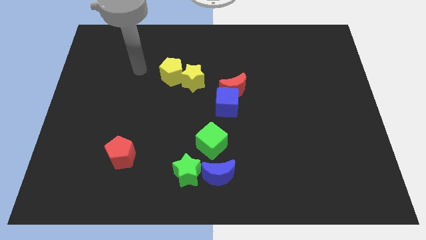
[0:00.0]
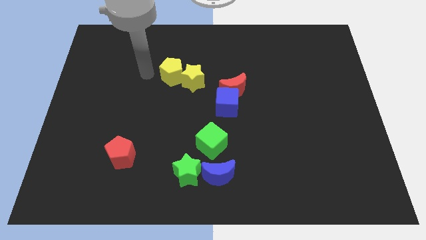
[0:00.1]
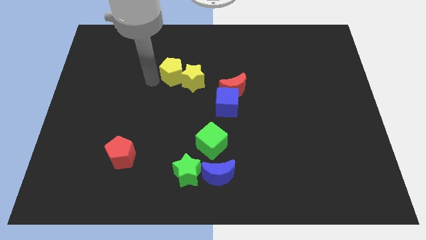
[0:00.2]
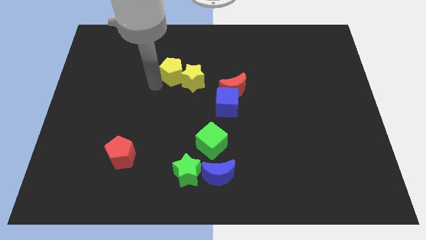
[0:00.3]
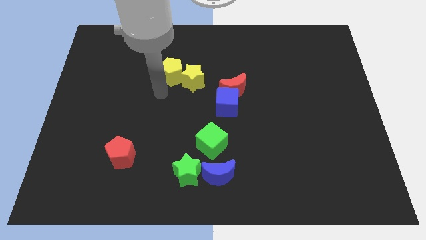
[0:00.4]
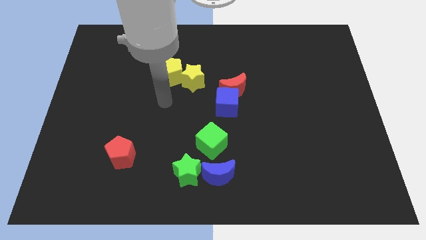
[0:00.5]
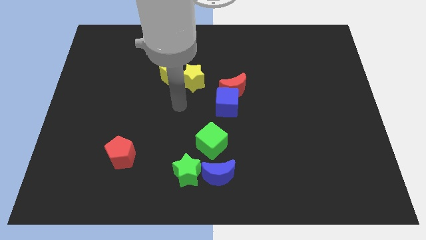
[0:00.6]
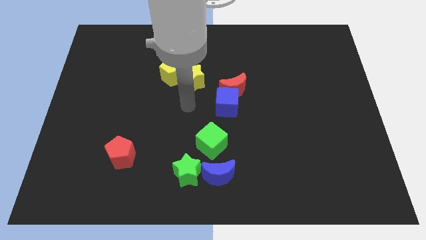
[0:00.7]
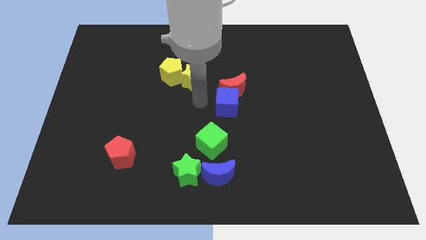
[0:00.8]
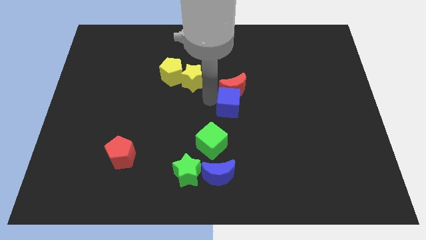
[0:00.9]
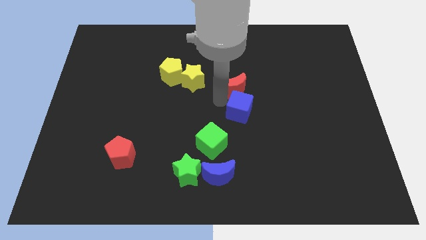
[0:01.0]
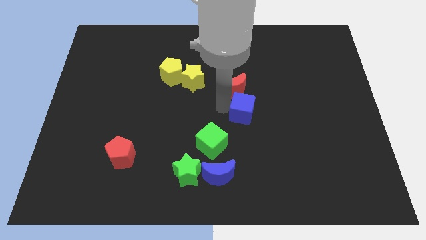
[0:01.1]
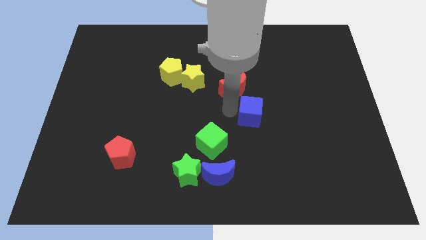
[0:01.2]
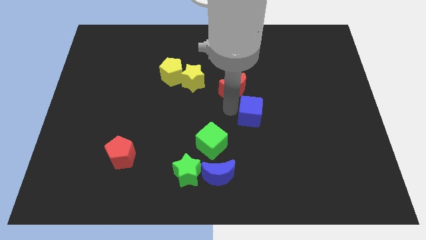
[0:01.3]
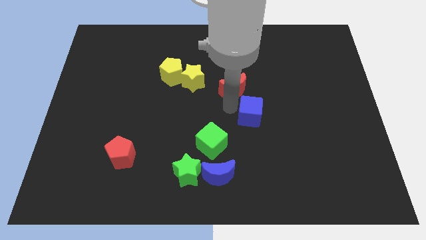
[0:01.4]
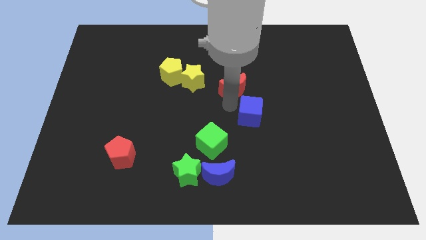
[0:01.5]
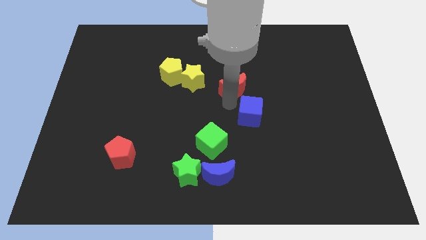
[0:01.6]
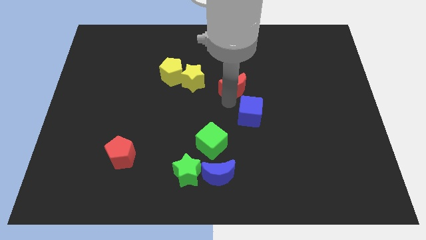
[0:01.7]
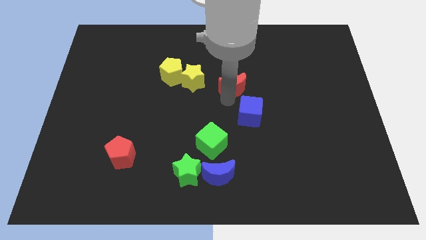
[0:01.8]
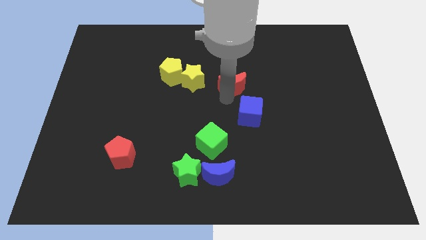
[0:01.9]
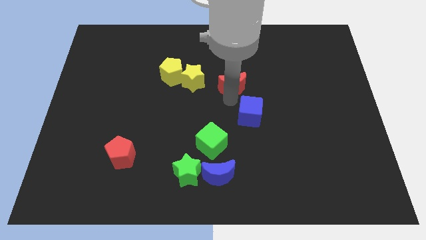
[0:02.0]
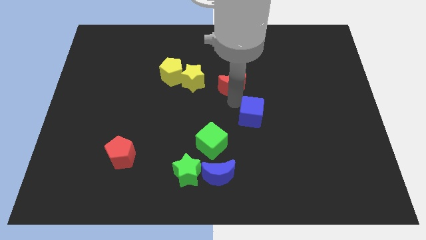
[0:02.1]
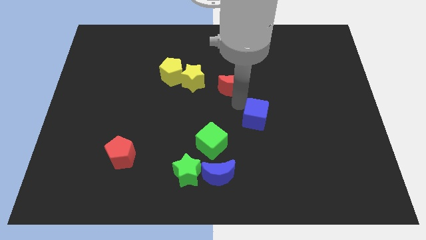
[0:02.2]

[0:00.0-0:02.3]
separate the red moon from the blue cube

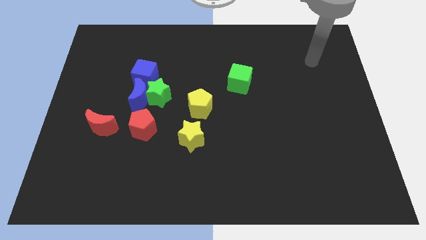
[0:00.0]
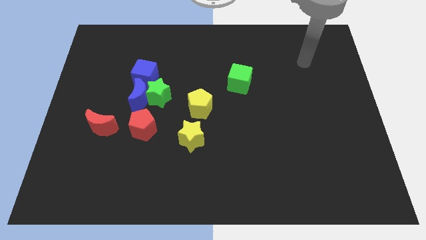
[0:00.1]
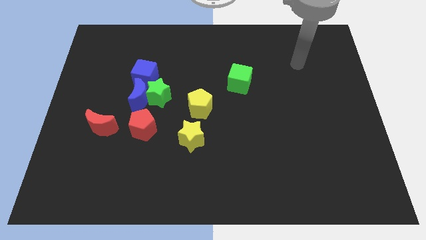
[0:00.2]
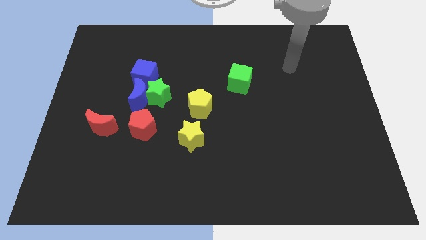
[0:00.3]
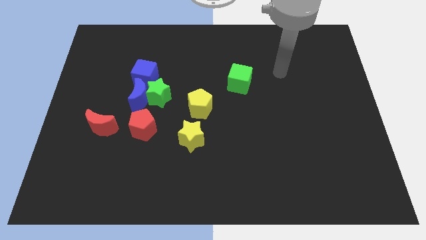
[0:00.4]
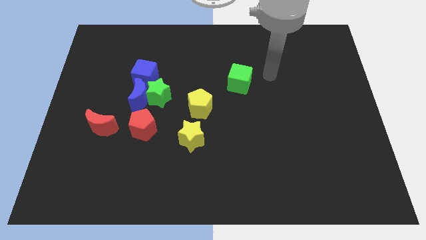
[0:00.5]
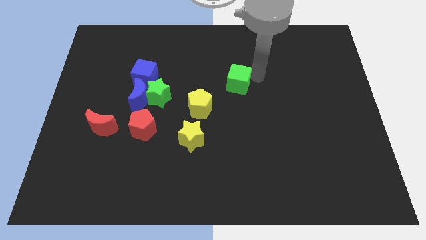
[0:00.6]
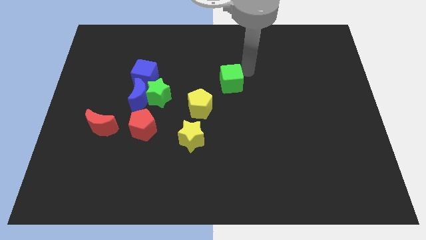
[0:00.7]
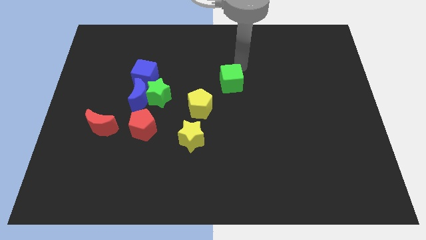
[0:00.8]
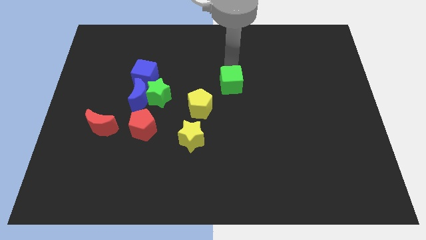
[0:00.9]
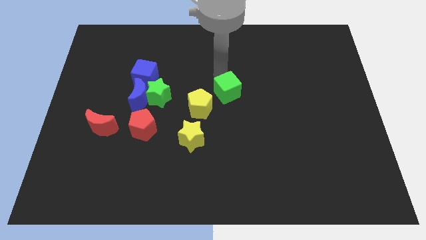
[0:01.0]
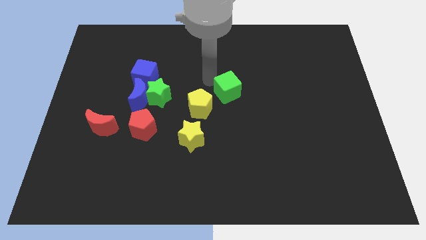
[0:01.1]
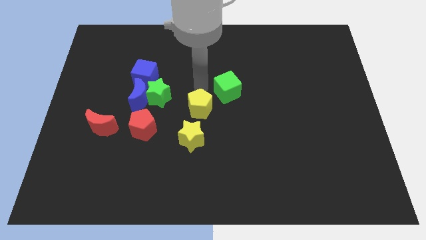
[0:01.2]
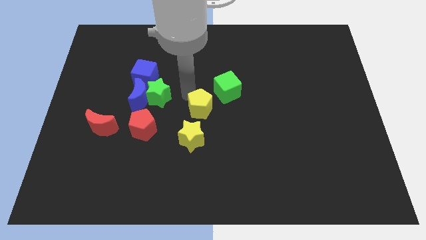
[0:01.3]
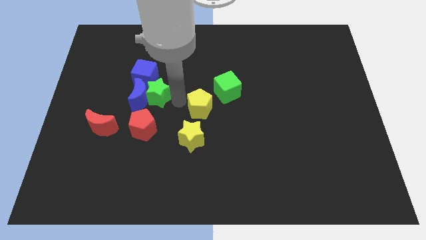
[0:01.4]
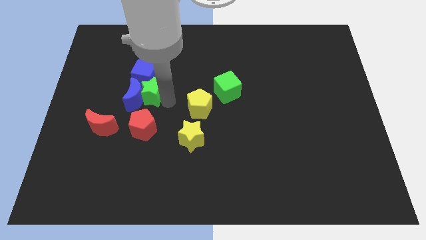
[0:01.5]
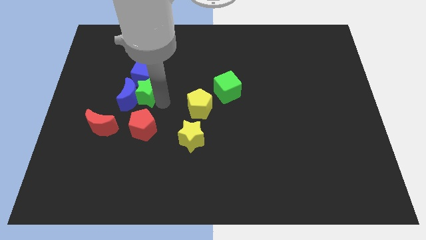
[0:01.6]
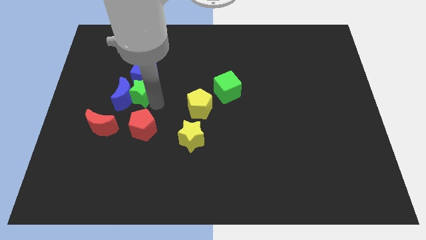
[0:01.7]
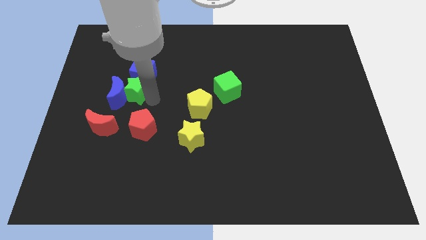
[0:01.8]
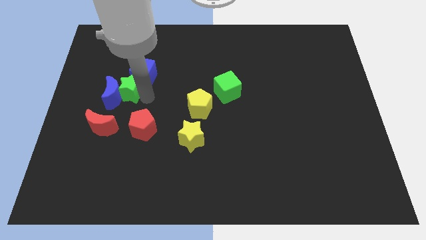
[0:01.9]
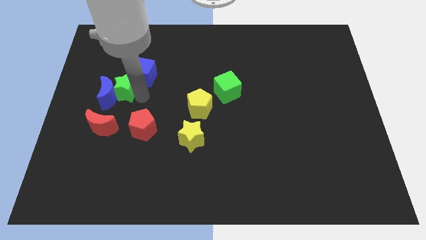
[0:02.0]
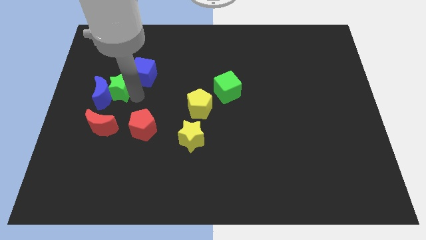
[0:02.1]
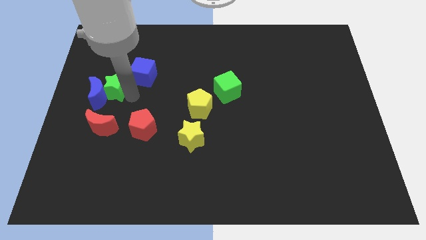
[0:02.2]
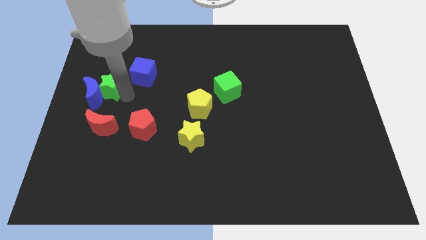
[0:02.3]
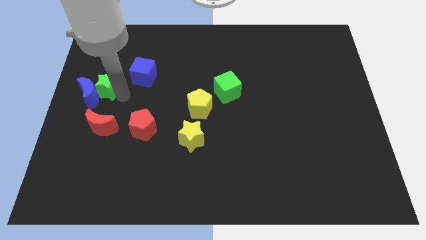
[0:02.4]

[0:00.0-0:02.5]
pull the blue moon apart from the clump

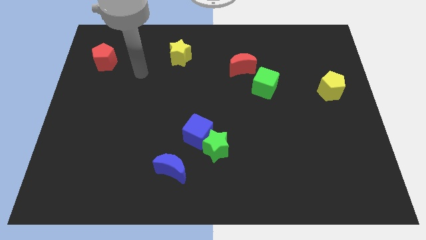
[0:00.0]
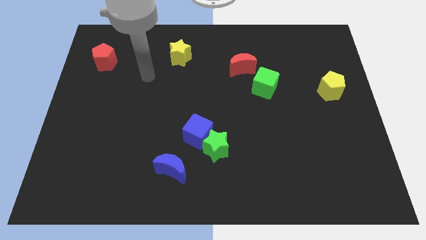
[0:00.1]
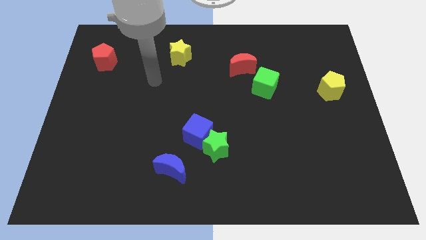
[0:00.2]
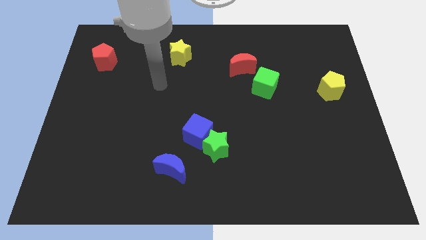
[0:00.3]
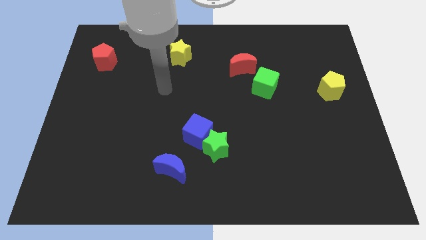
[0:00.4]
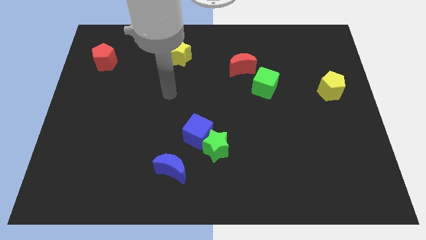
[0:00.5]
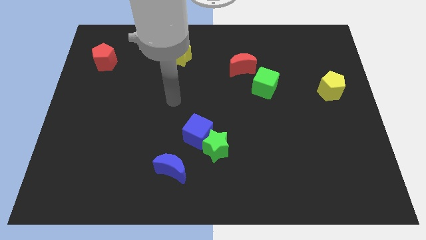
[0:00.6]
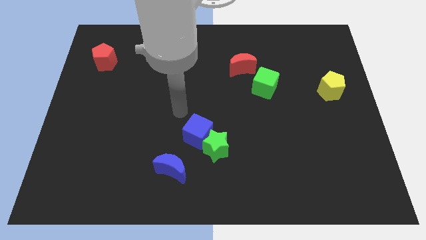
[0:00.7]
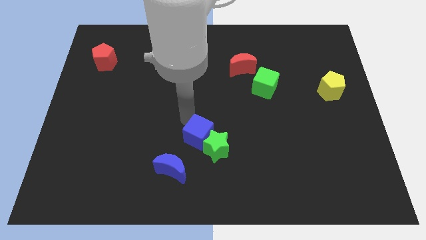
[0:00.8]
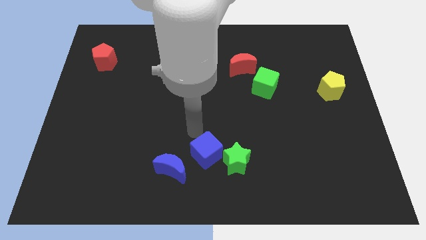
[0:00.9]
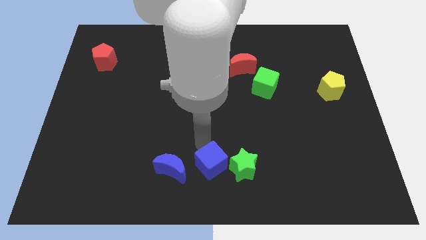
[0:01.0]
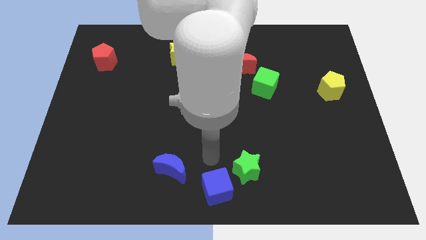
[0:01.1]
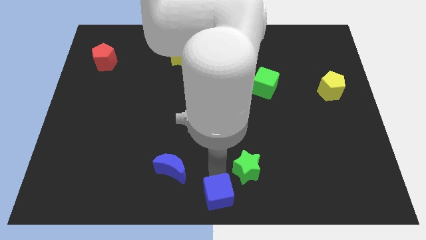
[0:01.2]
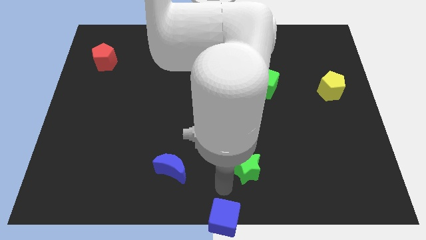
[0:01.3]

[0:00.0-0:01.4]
pull the green star apart from the blue cube

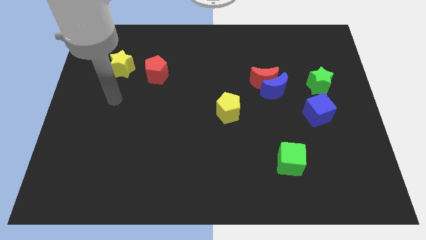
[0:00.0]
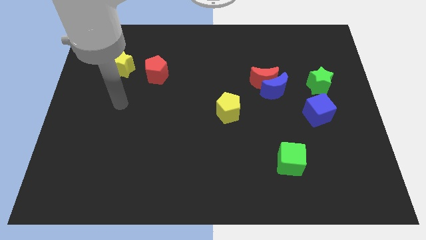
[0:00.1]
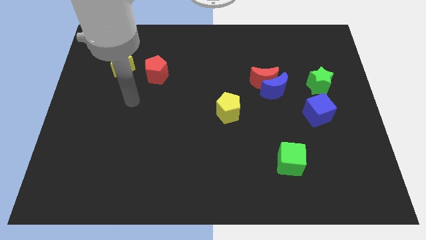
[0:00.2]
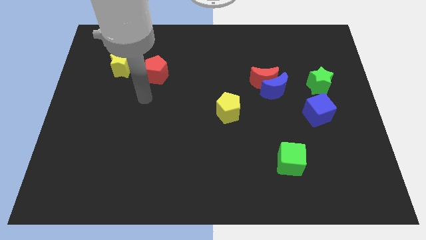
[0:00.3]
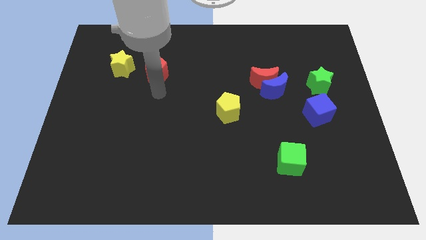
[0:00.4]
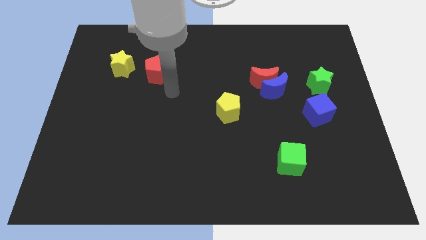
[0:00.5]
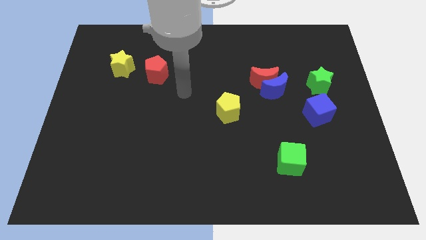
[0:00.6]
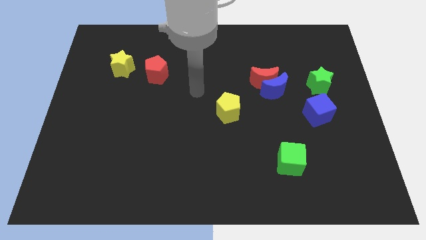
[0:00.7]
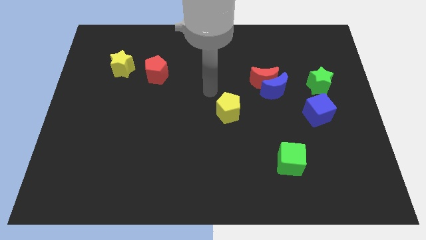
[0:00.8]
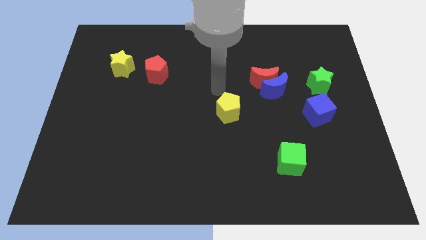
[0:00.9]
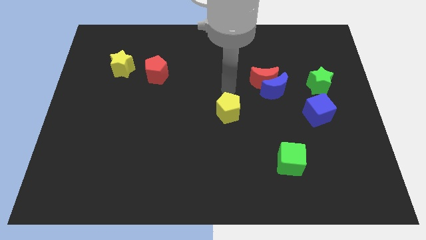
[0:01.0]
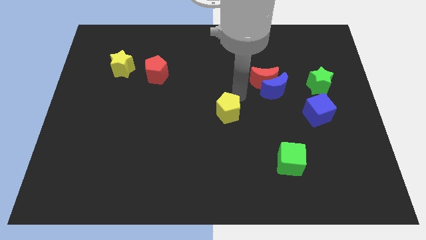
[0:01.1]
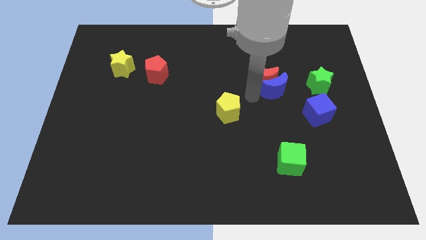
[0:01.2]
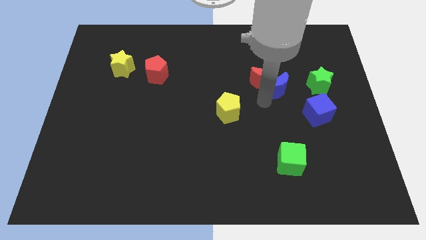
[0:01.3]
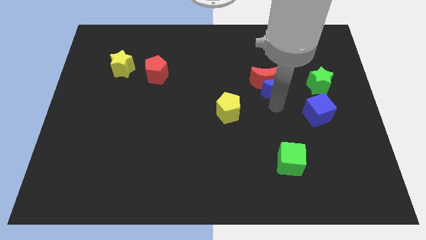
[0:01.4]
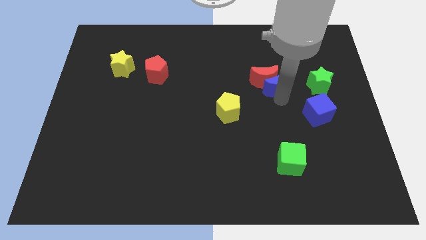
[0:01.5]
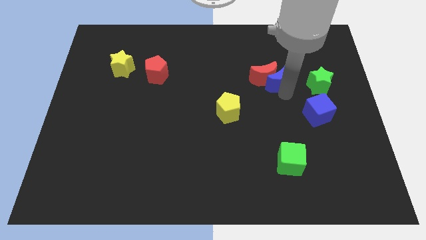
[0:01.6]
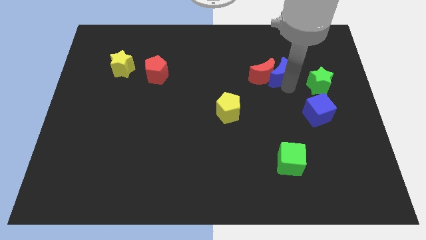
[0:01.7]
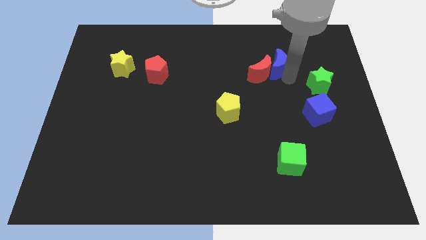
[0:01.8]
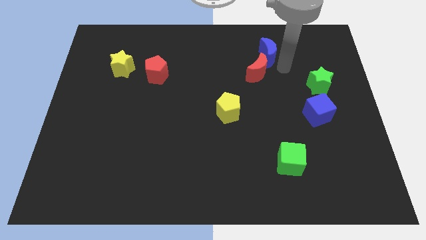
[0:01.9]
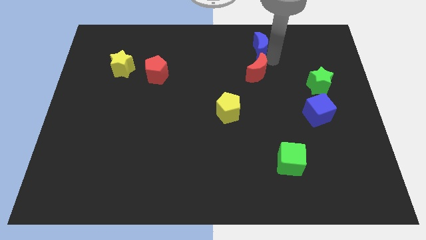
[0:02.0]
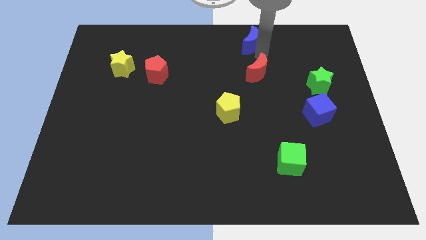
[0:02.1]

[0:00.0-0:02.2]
separate the red moon from the blue moon

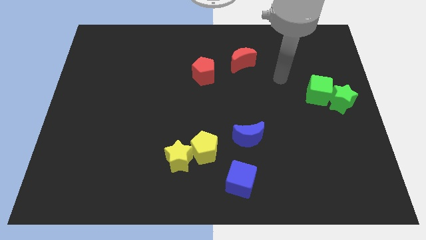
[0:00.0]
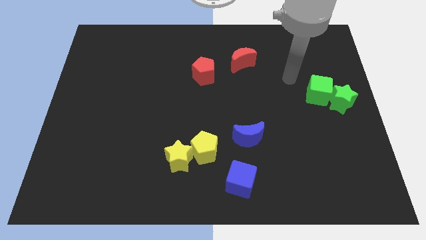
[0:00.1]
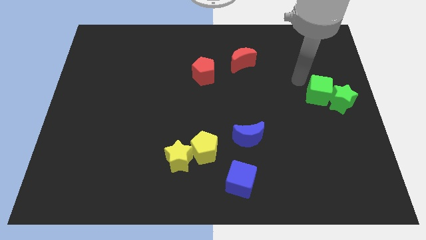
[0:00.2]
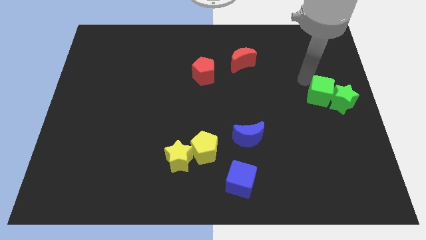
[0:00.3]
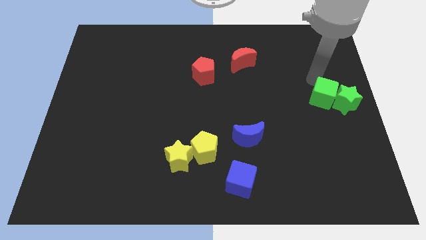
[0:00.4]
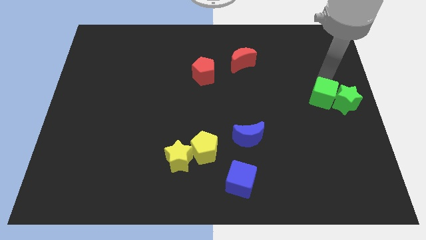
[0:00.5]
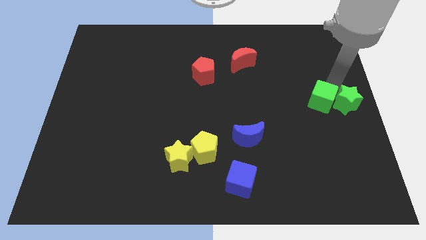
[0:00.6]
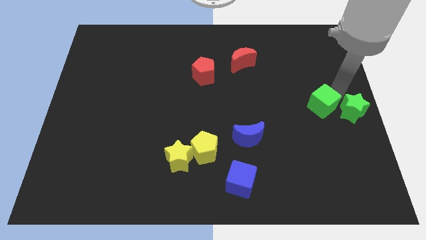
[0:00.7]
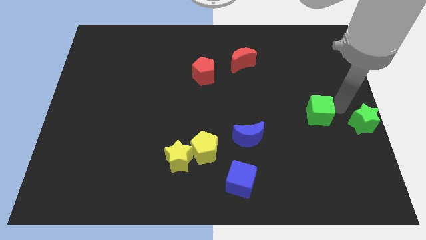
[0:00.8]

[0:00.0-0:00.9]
move the green cube away from the green star

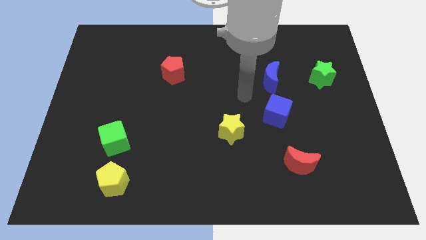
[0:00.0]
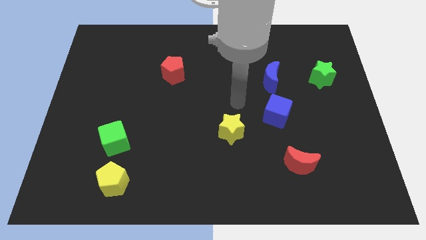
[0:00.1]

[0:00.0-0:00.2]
move the green cube away from the yellow pentagon
